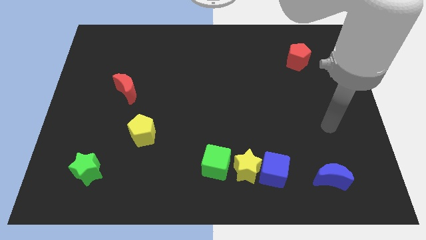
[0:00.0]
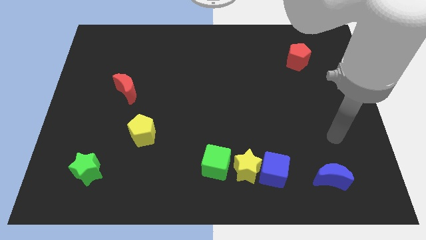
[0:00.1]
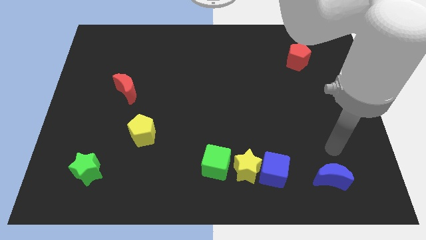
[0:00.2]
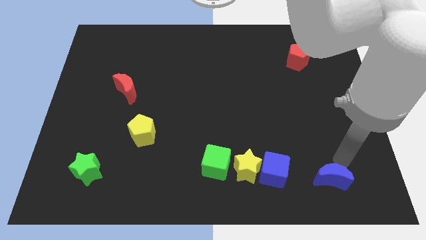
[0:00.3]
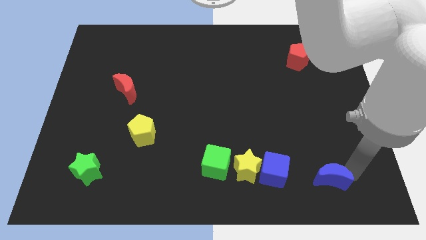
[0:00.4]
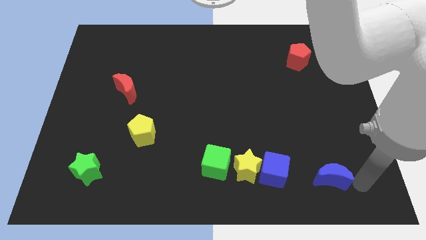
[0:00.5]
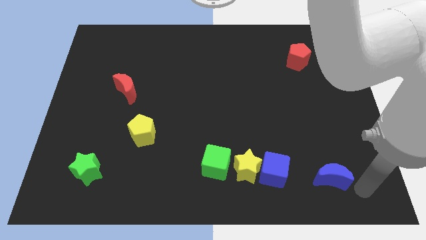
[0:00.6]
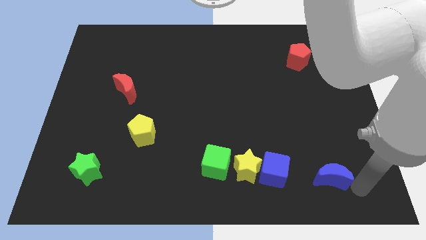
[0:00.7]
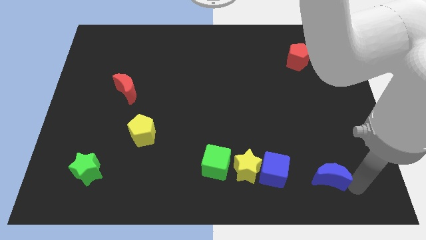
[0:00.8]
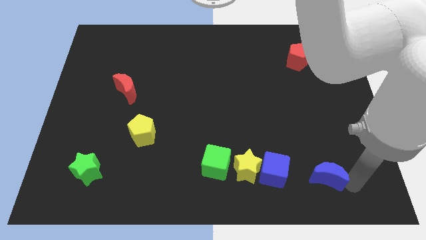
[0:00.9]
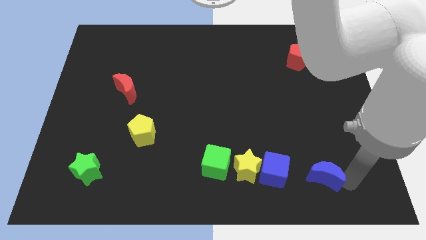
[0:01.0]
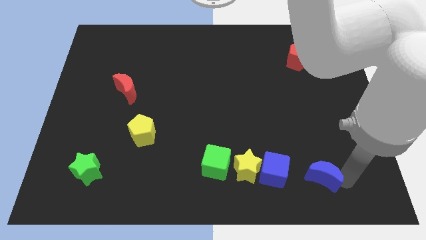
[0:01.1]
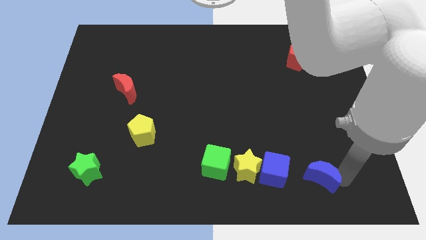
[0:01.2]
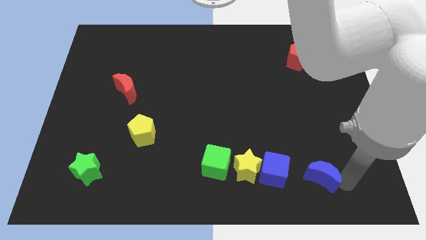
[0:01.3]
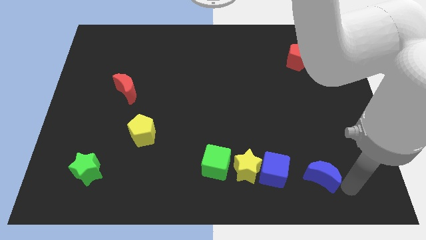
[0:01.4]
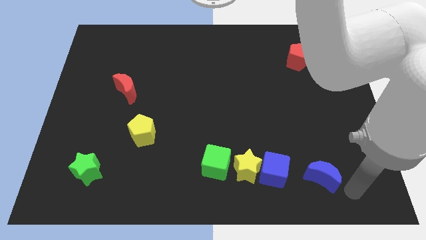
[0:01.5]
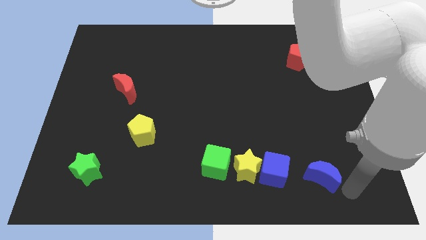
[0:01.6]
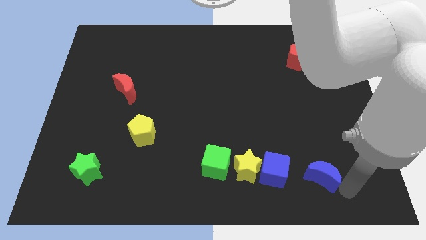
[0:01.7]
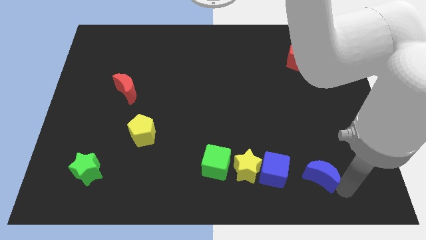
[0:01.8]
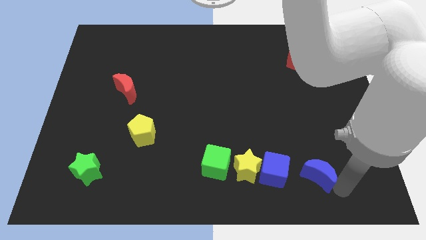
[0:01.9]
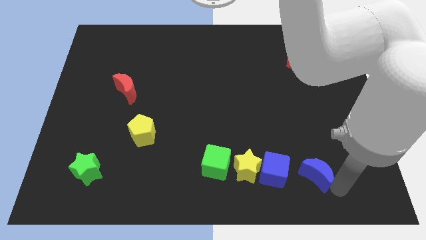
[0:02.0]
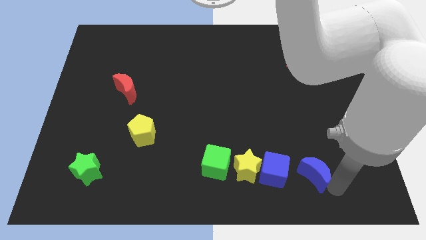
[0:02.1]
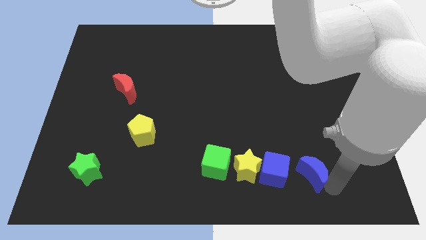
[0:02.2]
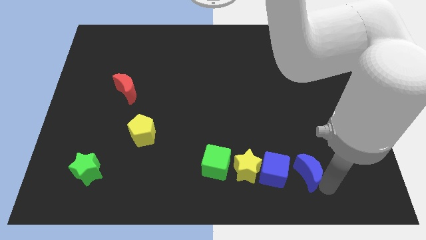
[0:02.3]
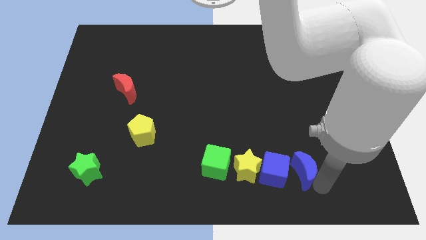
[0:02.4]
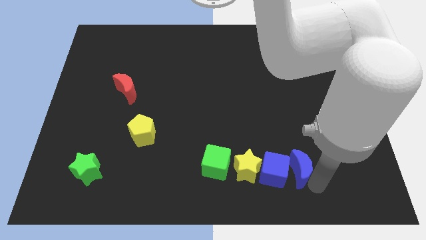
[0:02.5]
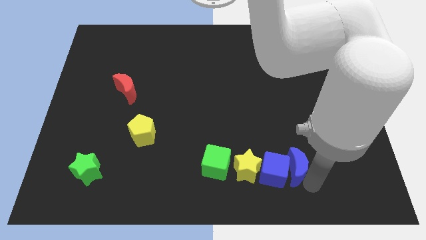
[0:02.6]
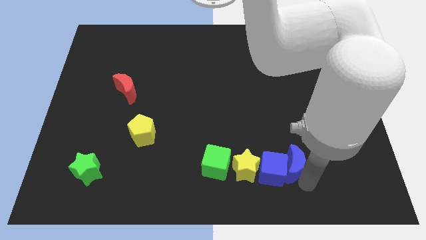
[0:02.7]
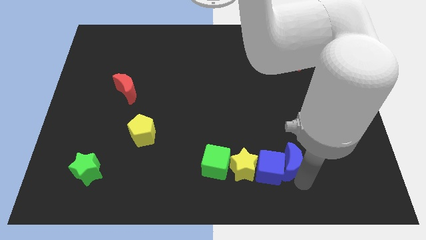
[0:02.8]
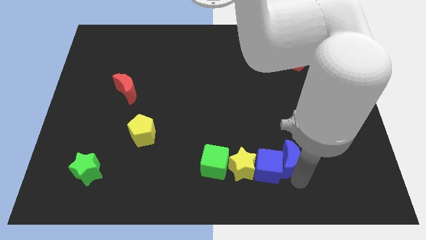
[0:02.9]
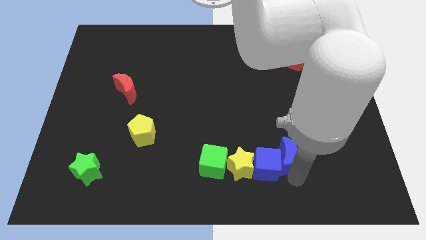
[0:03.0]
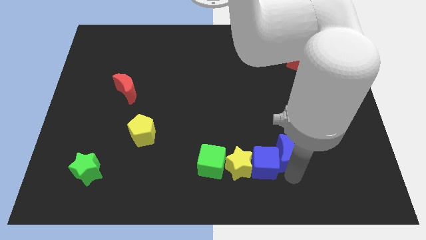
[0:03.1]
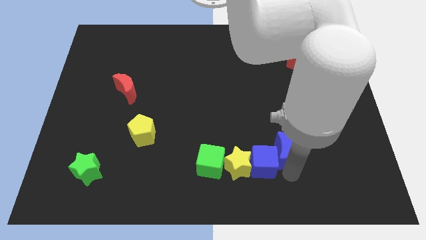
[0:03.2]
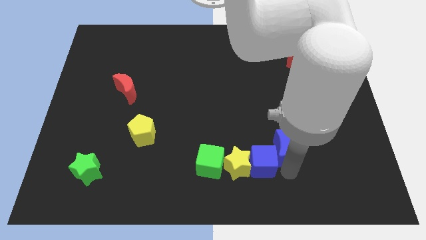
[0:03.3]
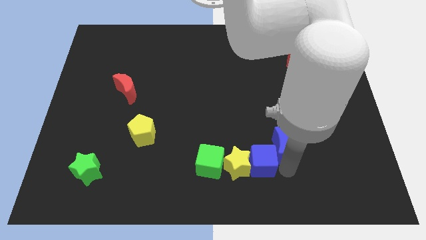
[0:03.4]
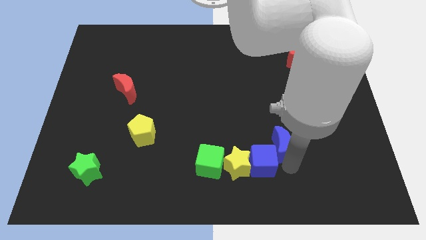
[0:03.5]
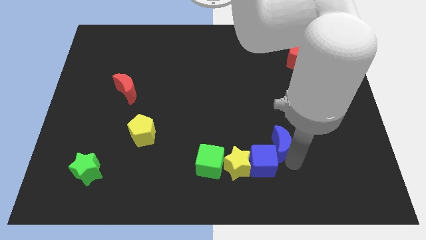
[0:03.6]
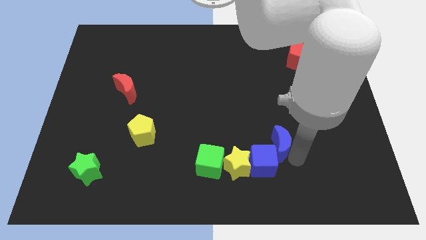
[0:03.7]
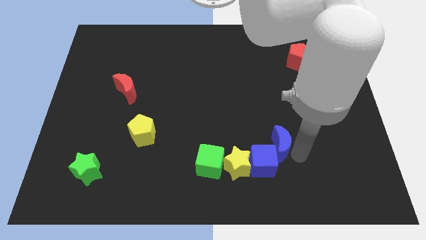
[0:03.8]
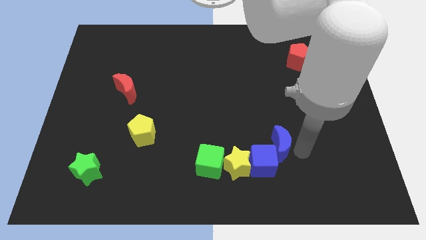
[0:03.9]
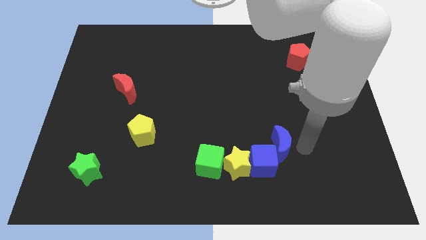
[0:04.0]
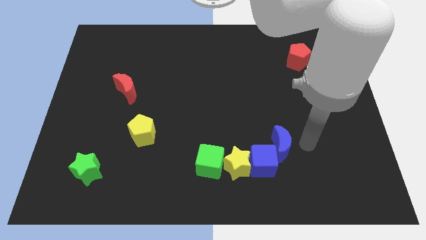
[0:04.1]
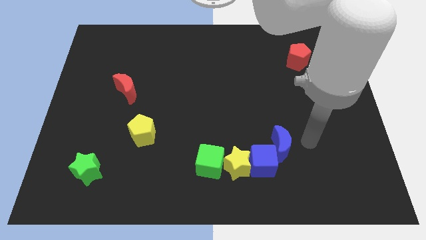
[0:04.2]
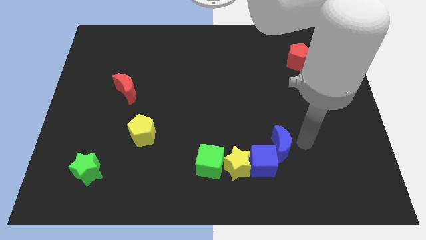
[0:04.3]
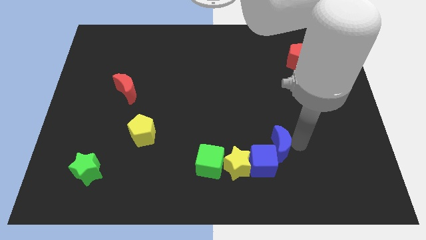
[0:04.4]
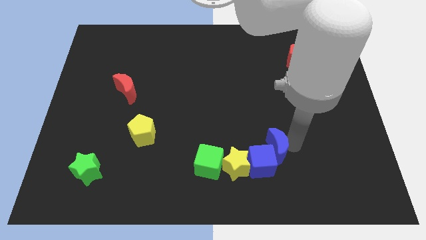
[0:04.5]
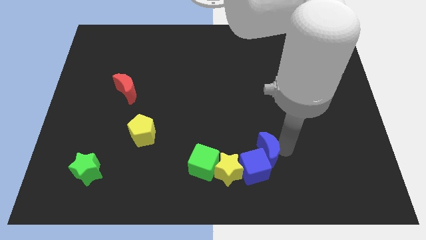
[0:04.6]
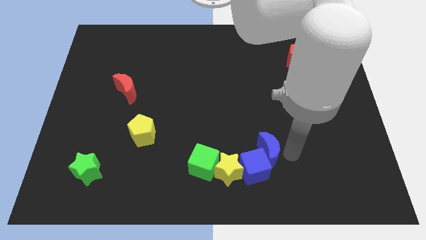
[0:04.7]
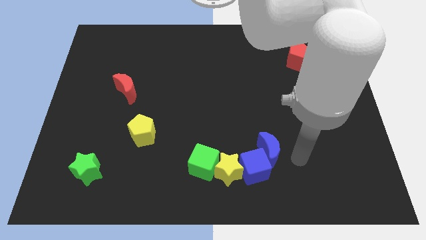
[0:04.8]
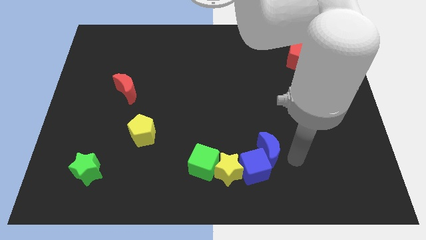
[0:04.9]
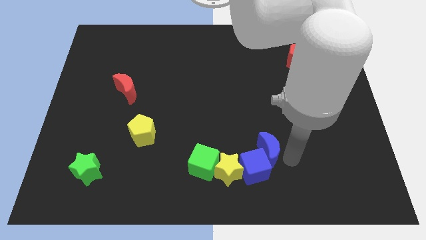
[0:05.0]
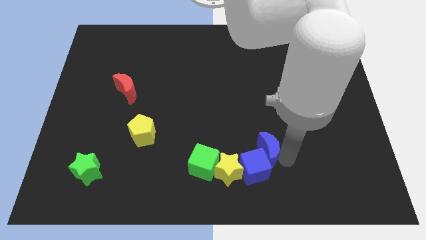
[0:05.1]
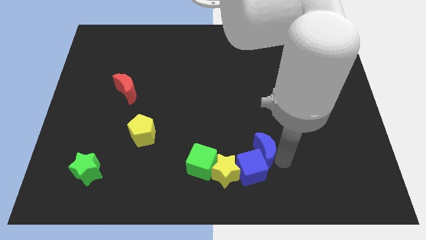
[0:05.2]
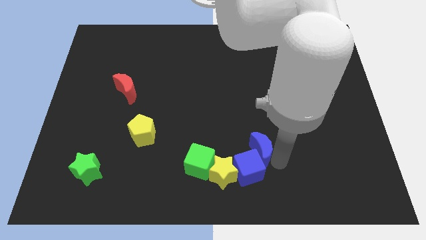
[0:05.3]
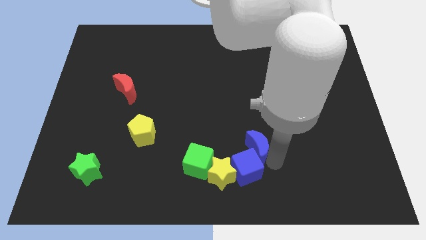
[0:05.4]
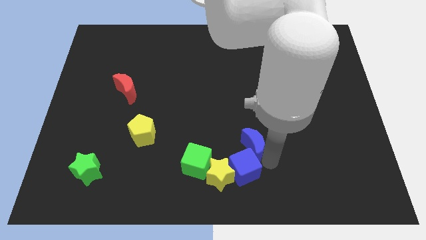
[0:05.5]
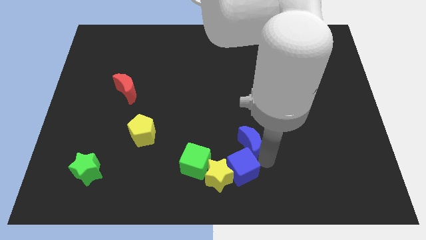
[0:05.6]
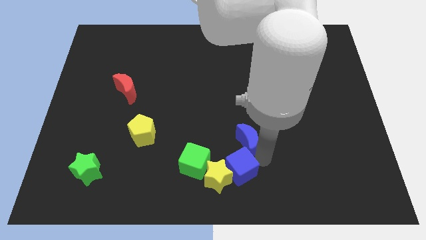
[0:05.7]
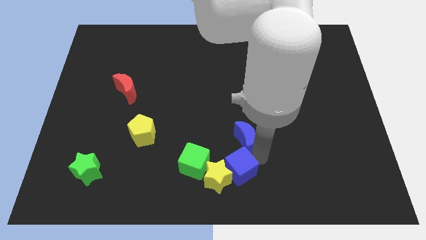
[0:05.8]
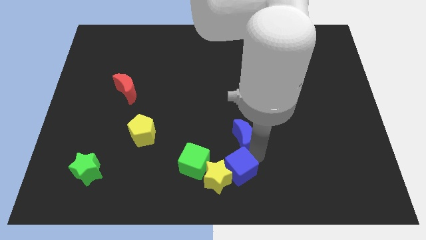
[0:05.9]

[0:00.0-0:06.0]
slide the blue moon to the top right side of the green cube

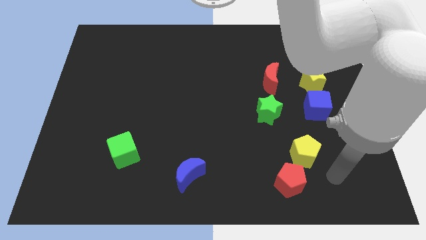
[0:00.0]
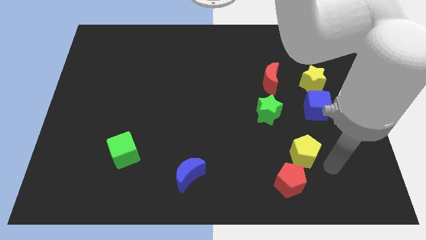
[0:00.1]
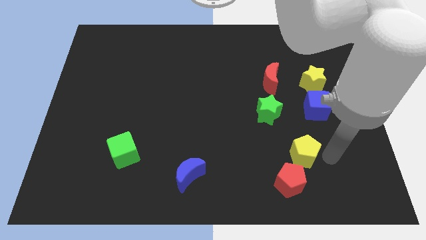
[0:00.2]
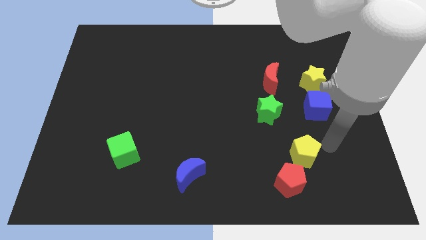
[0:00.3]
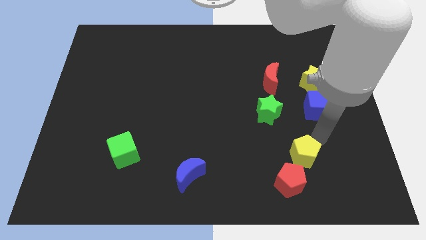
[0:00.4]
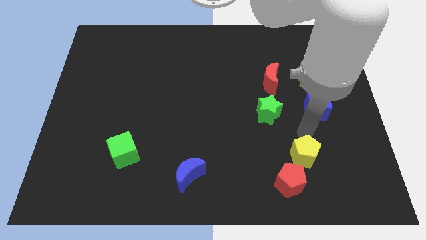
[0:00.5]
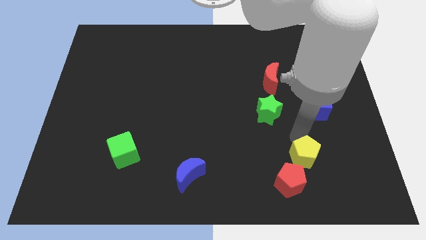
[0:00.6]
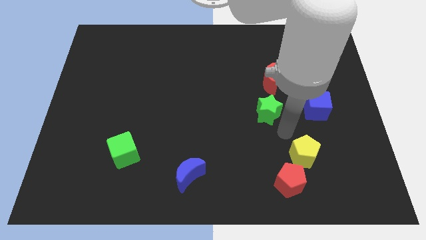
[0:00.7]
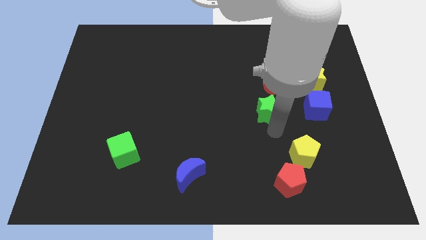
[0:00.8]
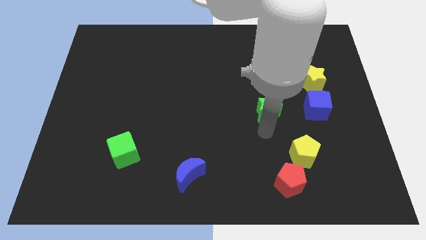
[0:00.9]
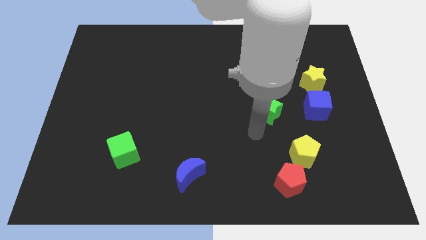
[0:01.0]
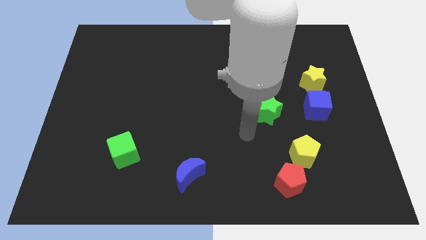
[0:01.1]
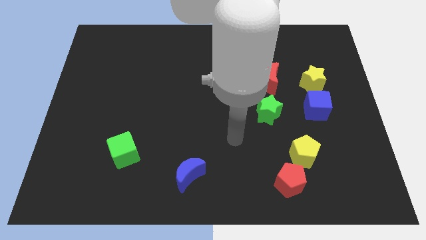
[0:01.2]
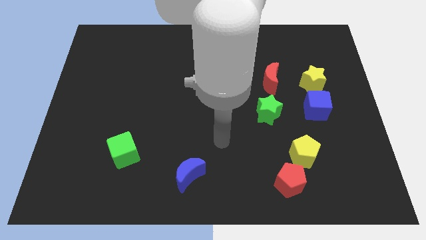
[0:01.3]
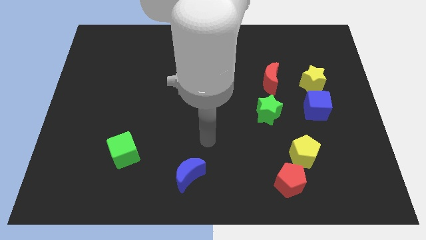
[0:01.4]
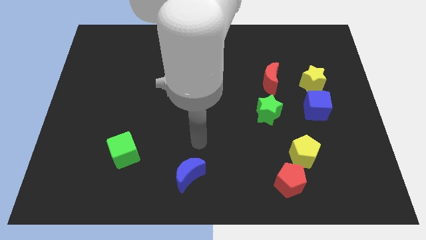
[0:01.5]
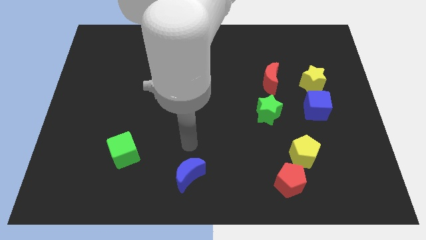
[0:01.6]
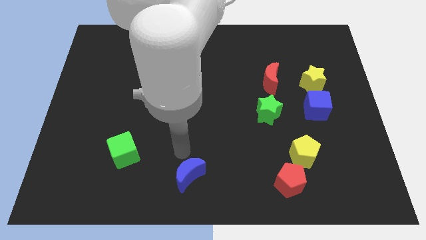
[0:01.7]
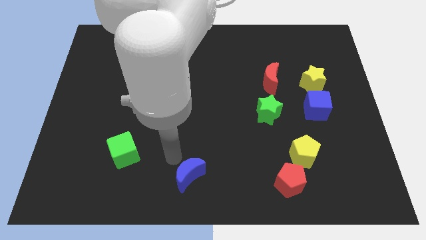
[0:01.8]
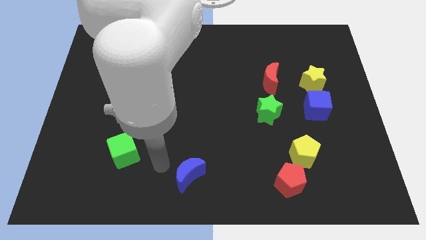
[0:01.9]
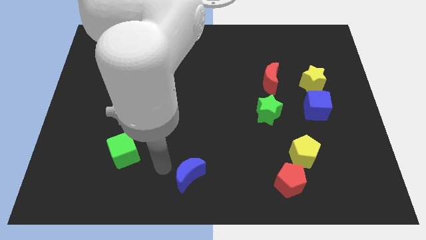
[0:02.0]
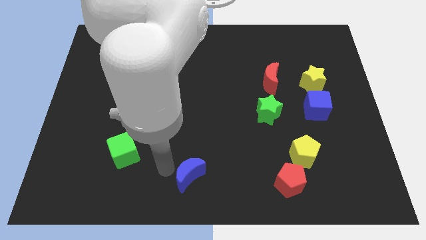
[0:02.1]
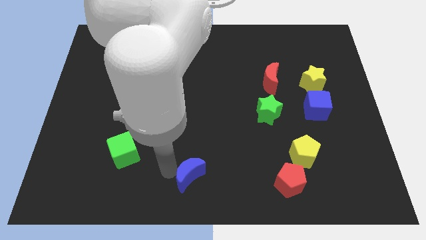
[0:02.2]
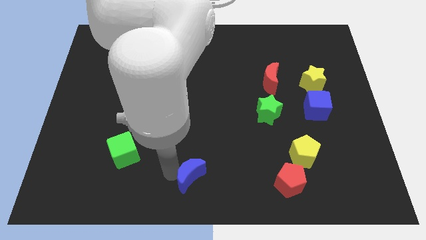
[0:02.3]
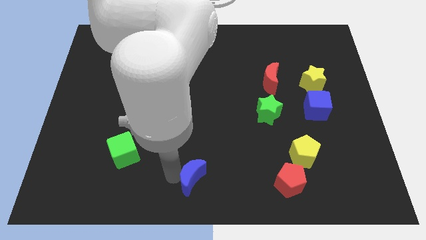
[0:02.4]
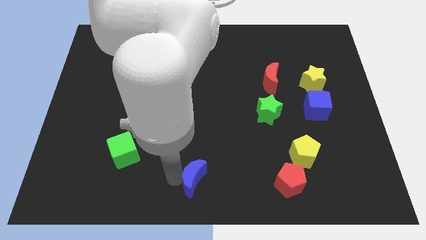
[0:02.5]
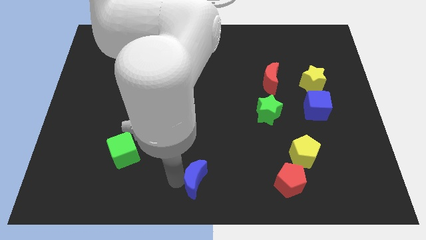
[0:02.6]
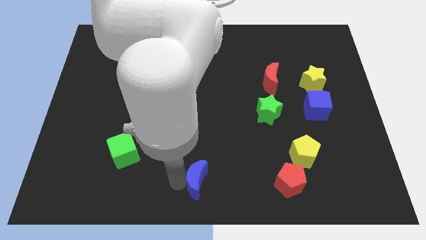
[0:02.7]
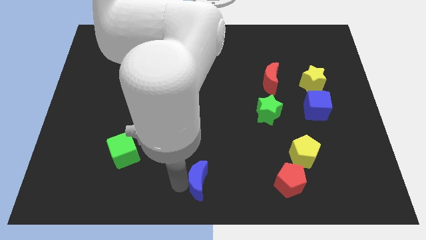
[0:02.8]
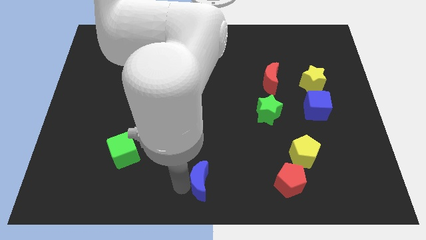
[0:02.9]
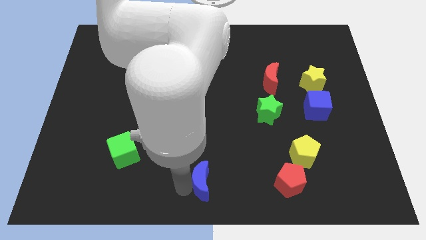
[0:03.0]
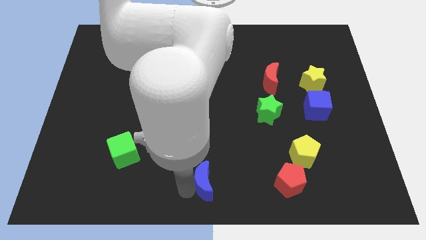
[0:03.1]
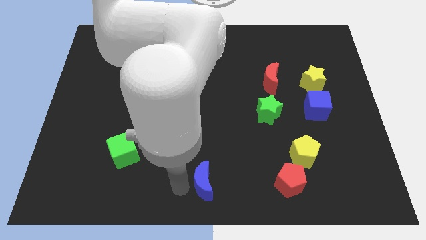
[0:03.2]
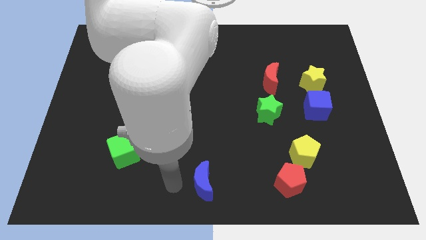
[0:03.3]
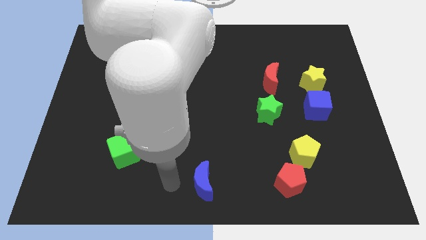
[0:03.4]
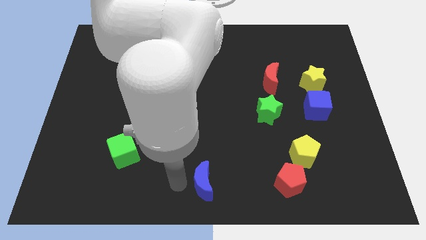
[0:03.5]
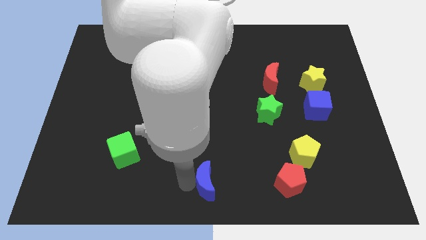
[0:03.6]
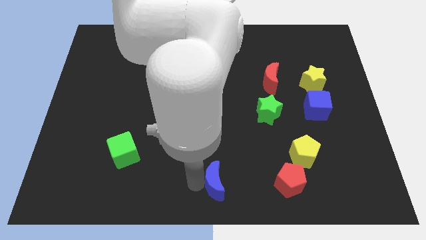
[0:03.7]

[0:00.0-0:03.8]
slide the blue moon left of the red pentagon
